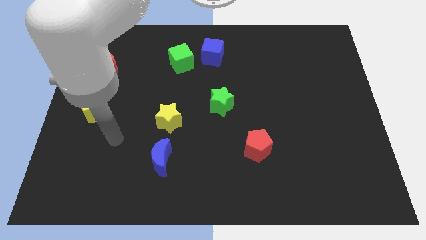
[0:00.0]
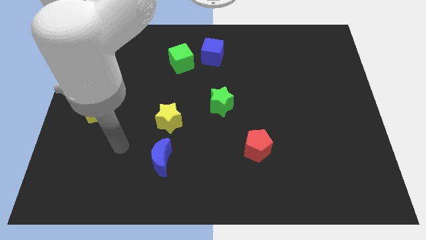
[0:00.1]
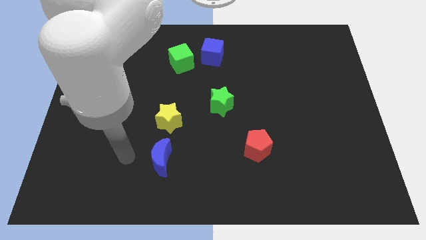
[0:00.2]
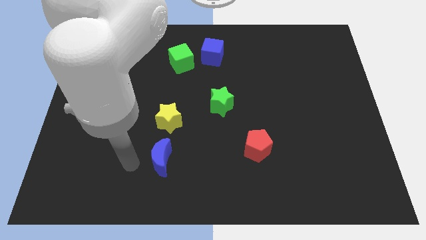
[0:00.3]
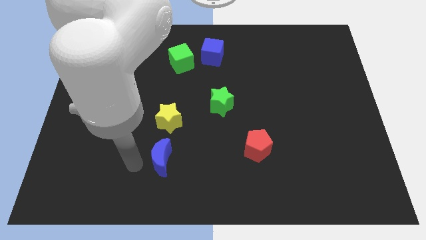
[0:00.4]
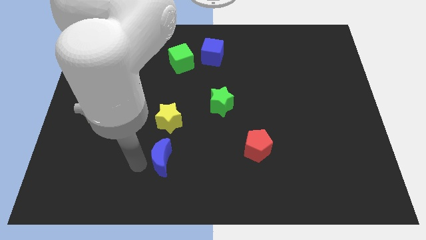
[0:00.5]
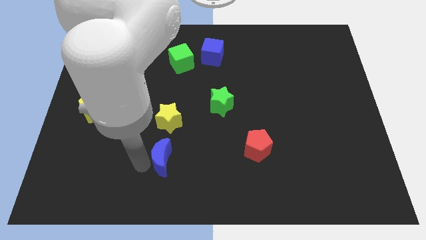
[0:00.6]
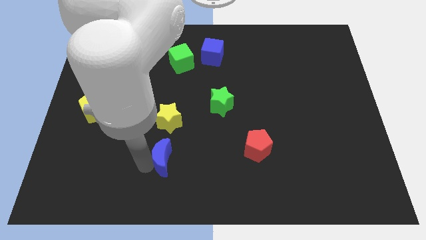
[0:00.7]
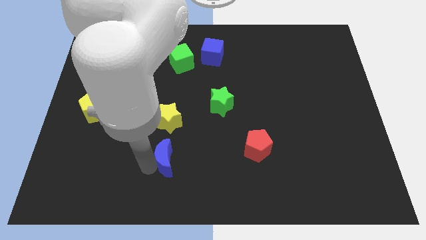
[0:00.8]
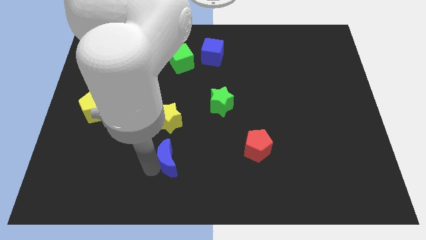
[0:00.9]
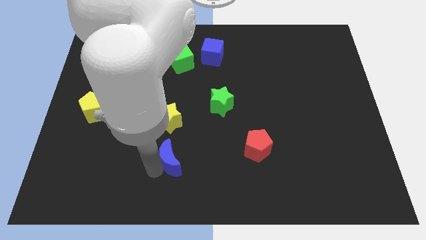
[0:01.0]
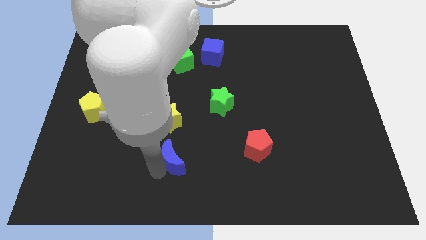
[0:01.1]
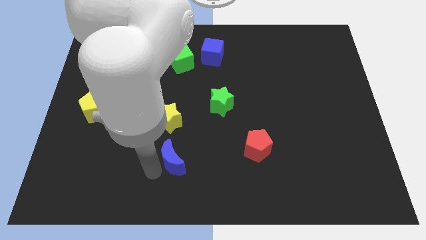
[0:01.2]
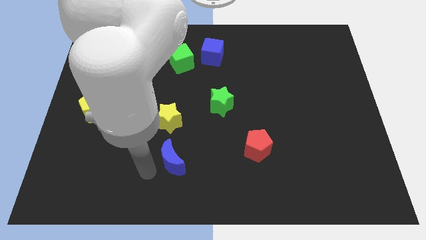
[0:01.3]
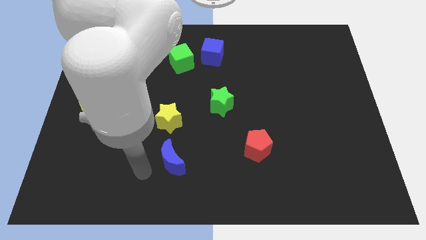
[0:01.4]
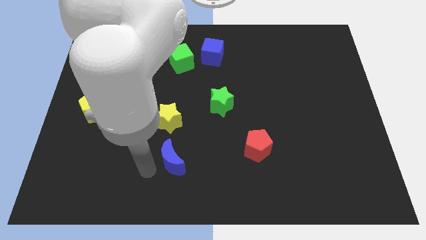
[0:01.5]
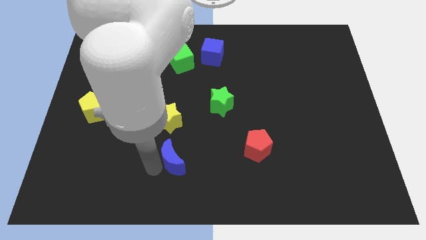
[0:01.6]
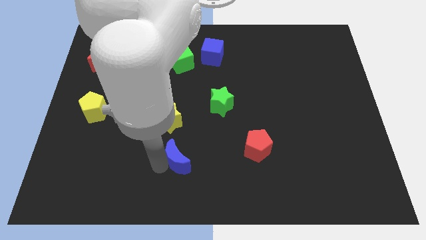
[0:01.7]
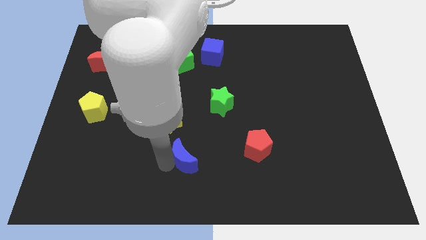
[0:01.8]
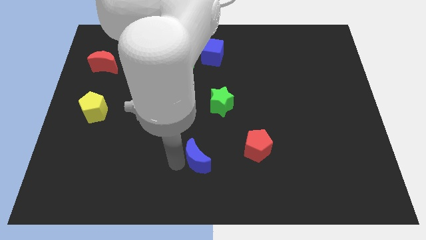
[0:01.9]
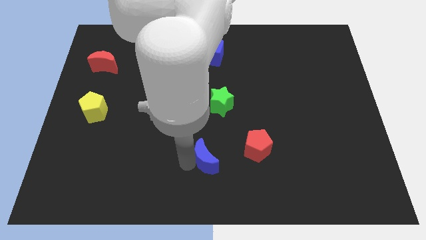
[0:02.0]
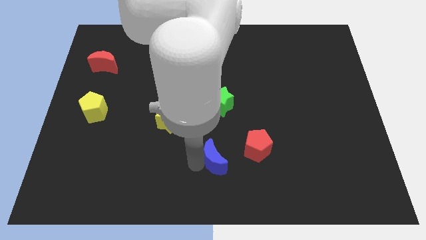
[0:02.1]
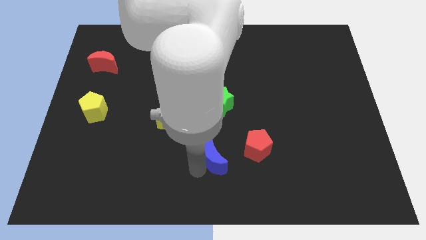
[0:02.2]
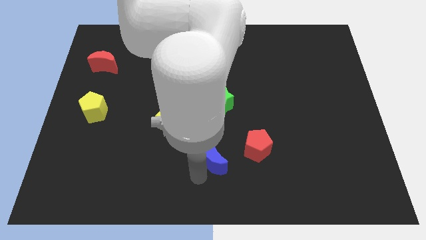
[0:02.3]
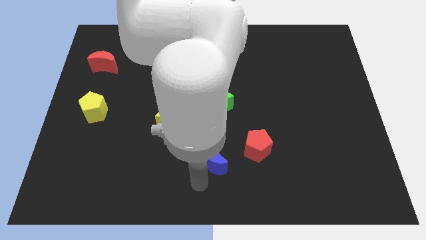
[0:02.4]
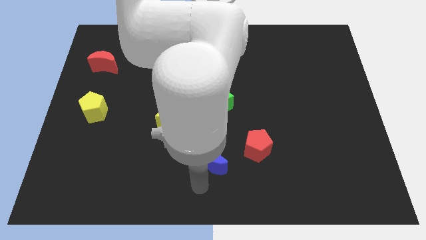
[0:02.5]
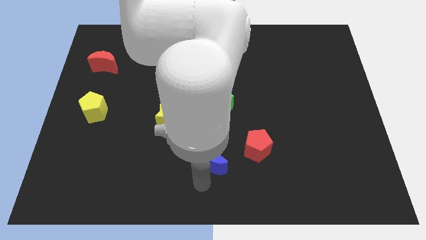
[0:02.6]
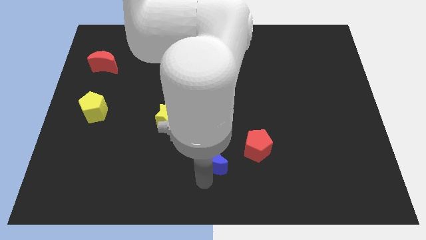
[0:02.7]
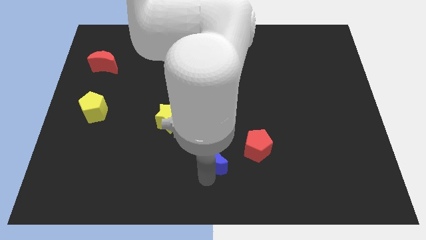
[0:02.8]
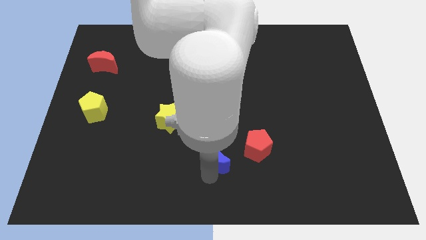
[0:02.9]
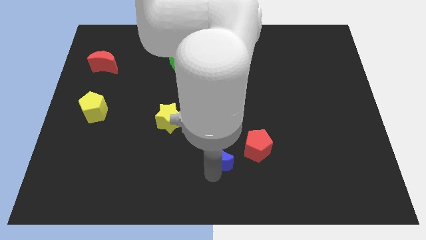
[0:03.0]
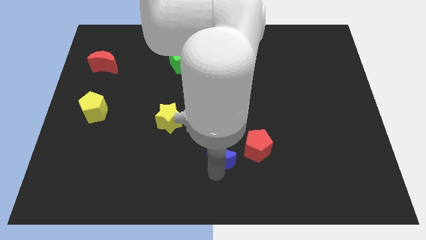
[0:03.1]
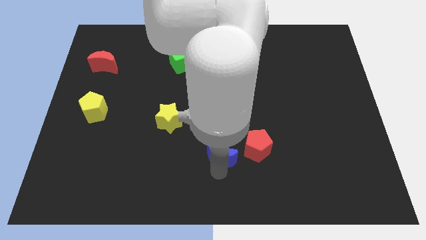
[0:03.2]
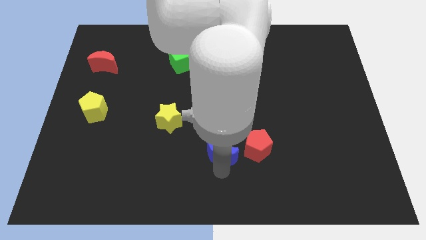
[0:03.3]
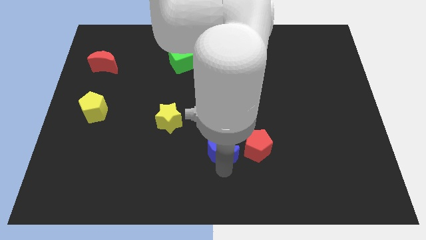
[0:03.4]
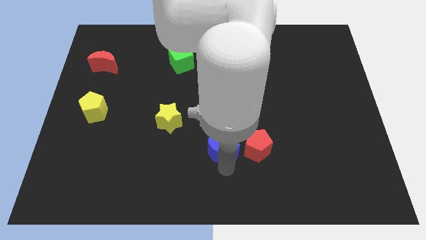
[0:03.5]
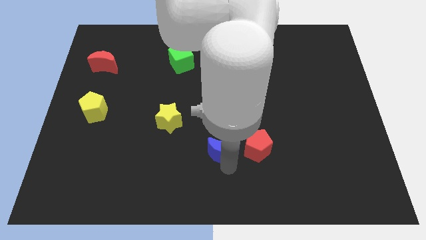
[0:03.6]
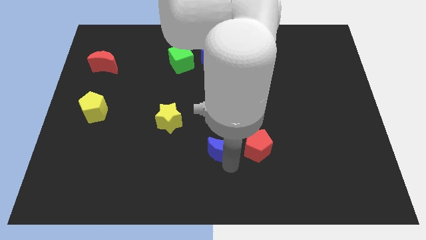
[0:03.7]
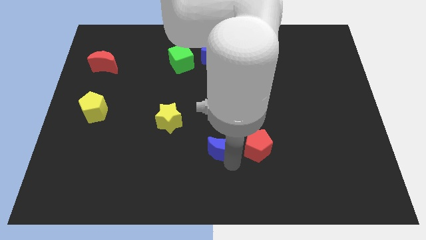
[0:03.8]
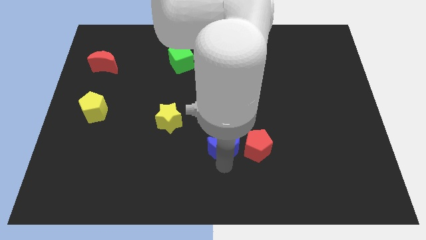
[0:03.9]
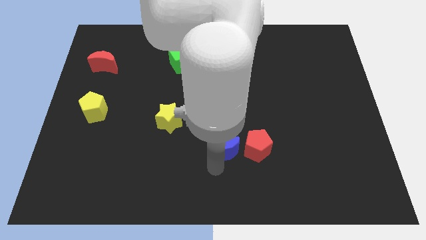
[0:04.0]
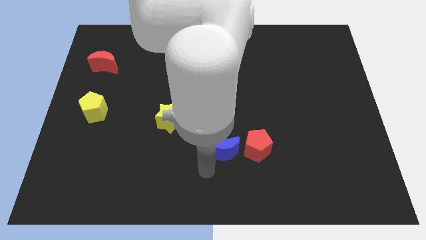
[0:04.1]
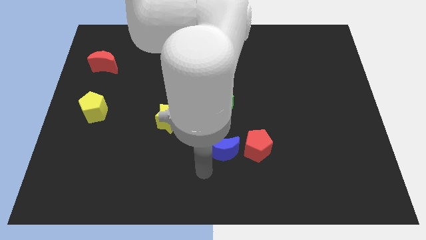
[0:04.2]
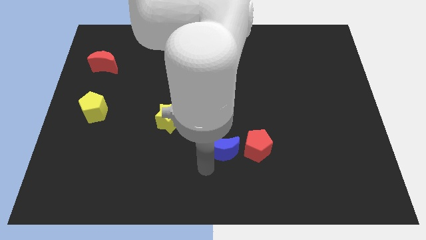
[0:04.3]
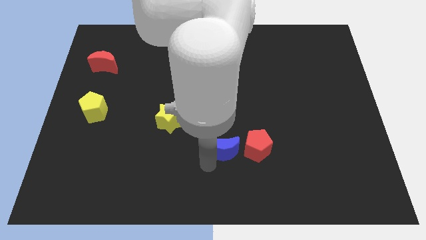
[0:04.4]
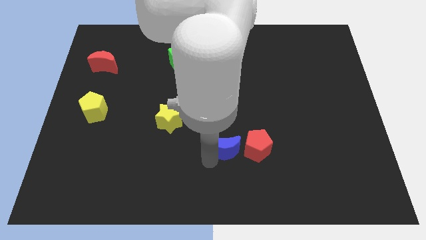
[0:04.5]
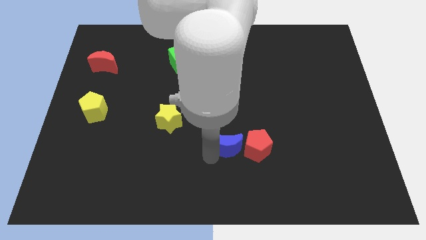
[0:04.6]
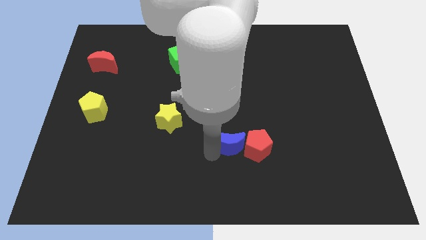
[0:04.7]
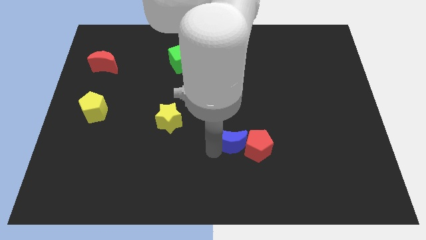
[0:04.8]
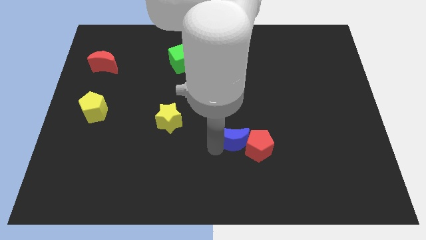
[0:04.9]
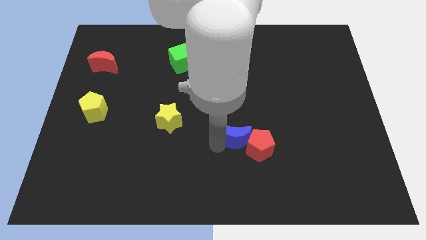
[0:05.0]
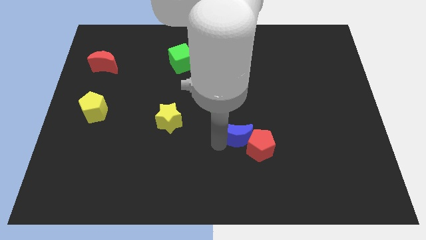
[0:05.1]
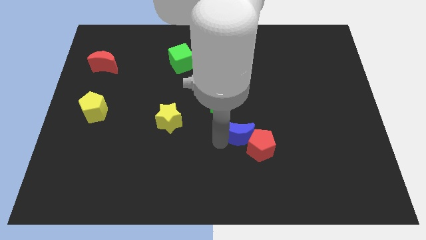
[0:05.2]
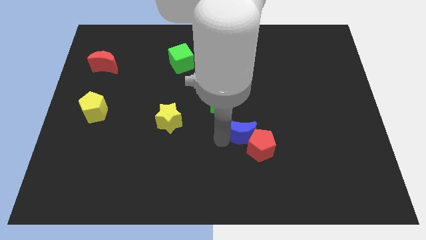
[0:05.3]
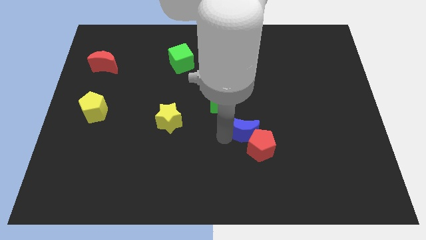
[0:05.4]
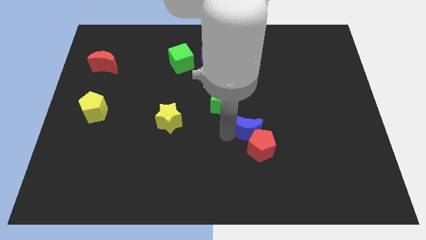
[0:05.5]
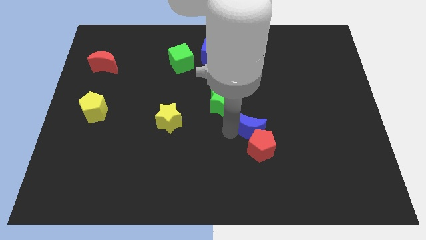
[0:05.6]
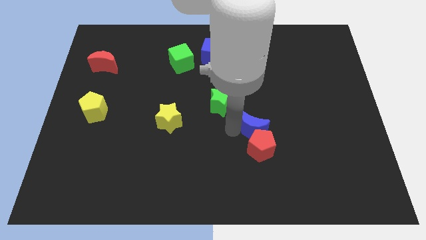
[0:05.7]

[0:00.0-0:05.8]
move the blue moon to the top right side of the red pentagon

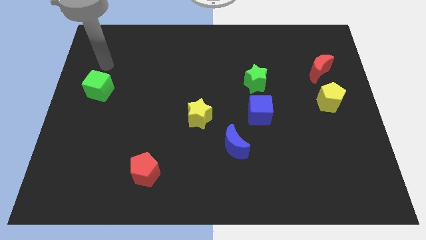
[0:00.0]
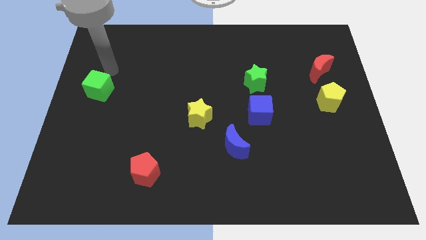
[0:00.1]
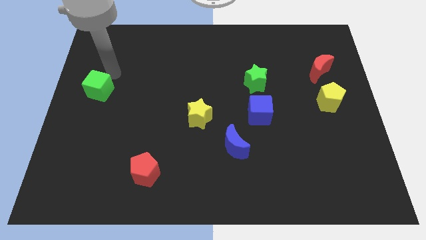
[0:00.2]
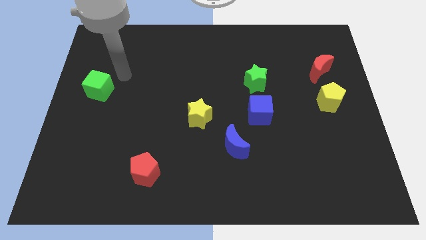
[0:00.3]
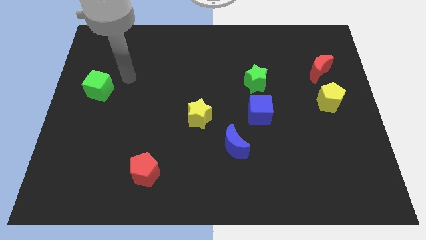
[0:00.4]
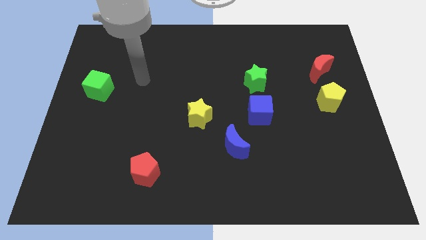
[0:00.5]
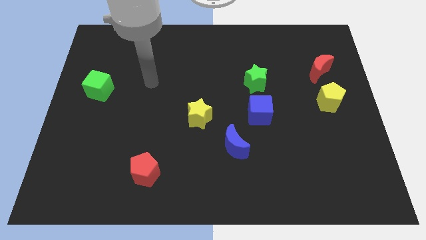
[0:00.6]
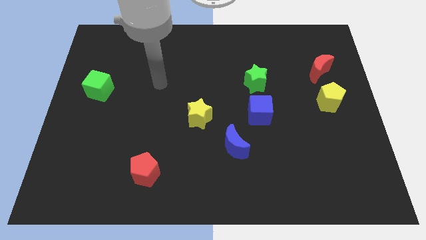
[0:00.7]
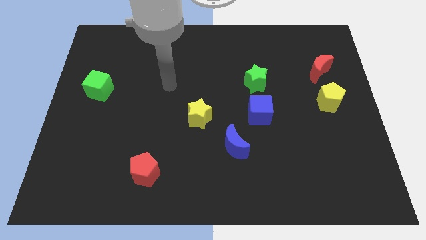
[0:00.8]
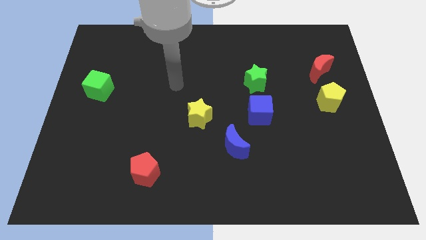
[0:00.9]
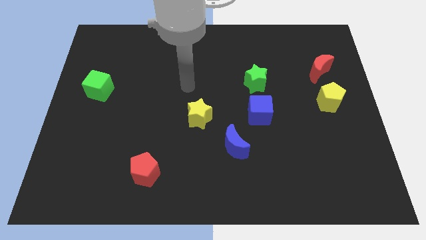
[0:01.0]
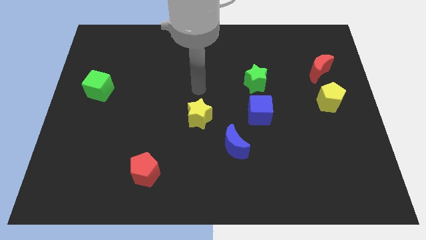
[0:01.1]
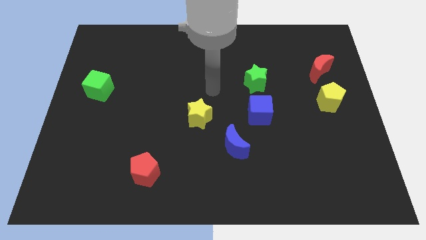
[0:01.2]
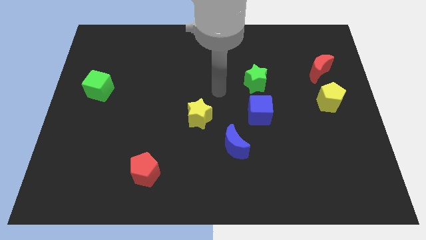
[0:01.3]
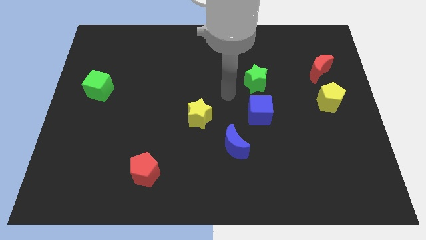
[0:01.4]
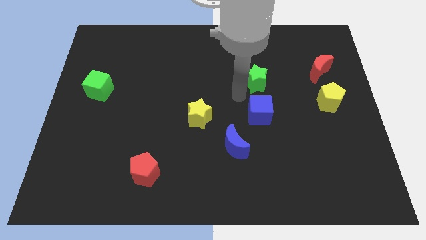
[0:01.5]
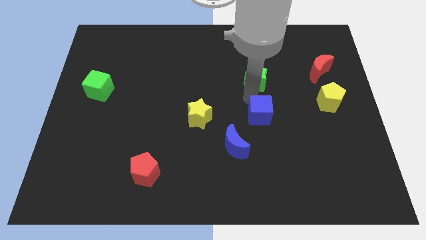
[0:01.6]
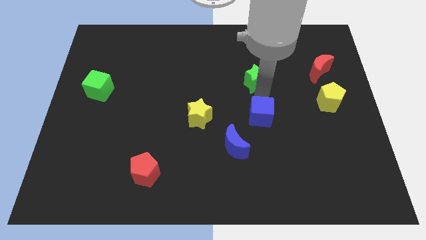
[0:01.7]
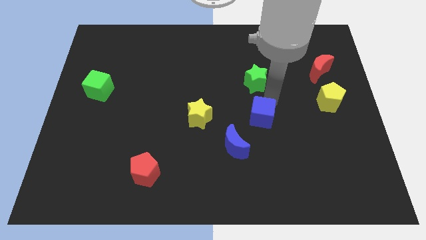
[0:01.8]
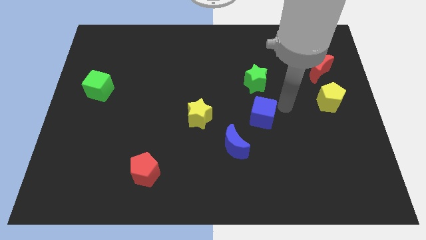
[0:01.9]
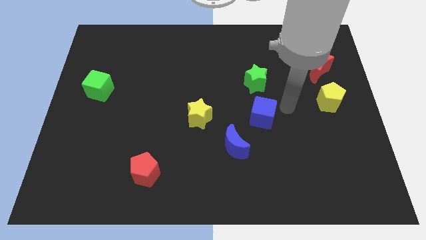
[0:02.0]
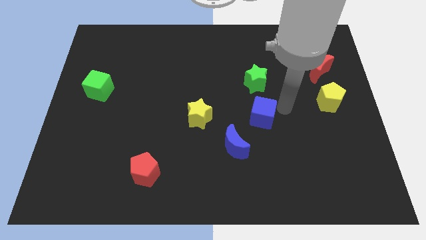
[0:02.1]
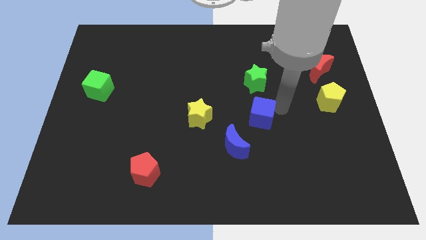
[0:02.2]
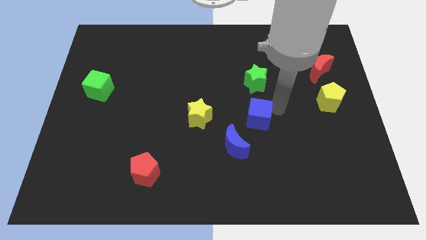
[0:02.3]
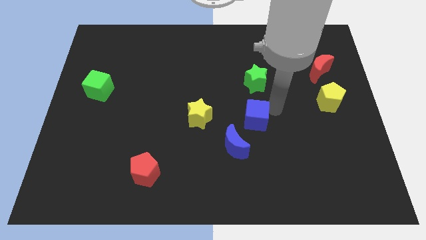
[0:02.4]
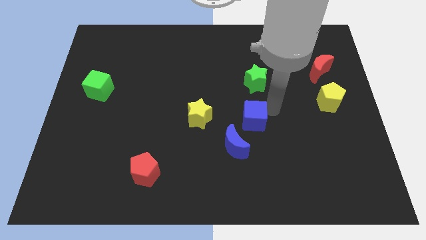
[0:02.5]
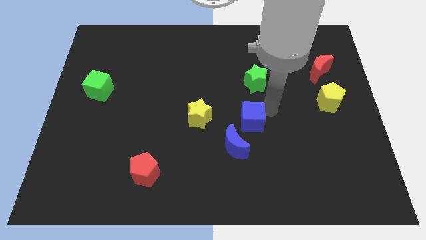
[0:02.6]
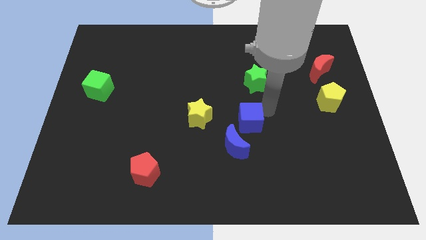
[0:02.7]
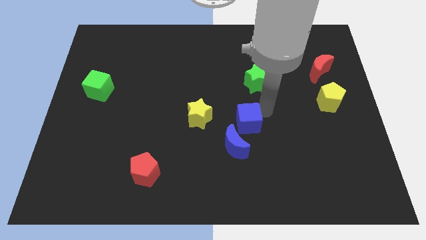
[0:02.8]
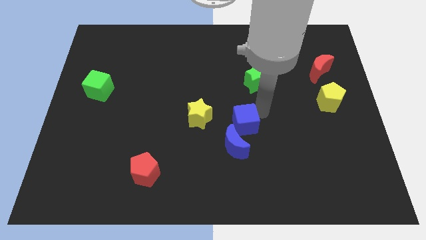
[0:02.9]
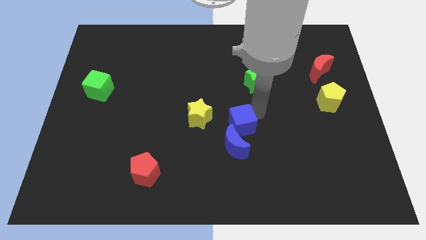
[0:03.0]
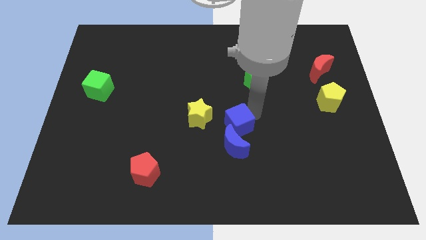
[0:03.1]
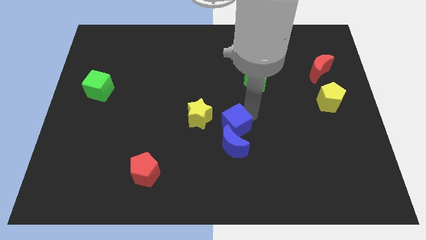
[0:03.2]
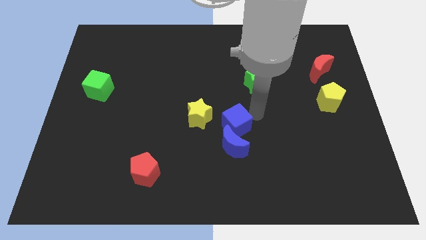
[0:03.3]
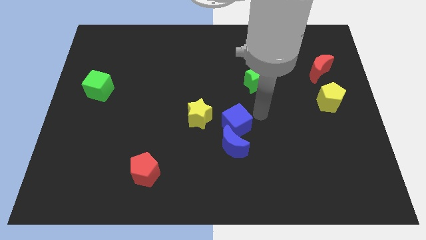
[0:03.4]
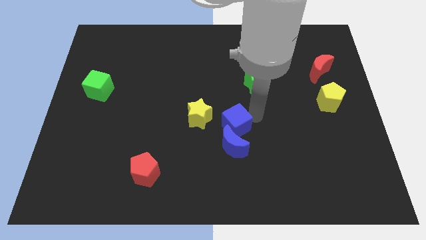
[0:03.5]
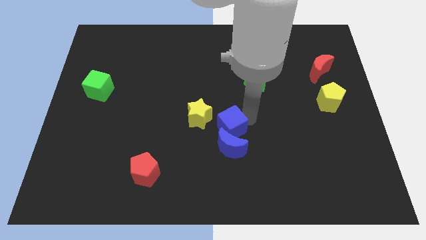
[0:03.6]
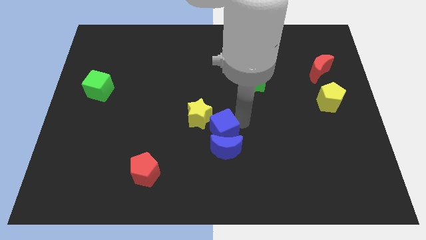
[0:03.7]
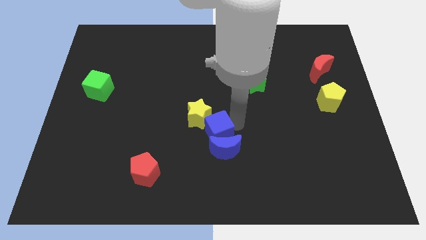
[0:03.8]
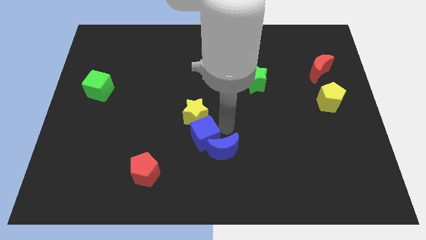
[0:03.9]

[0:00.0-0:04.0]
push the blue cube to the left side of the blue moon
